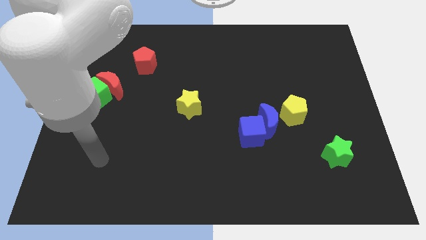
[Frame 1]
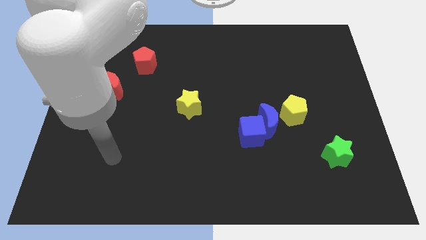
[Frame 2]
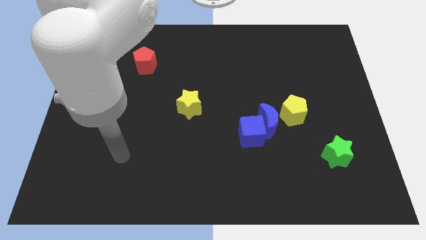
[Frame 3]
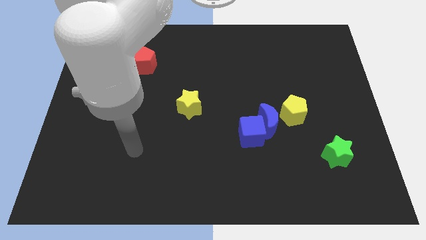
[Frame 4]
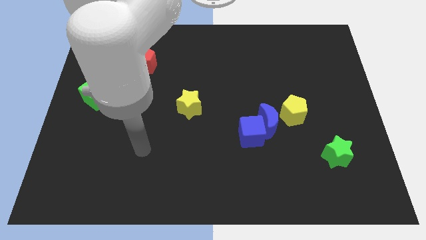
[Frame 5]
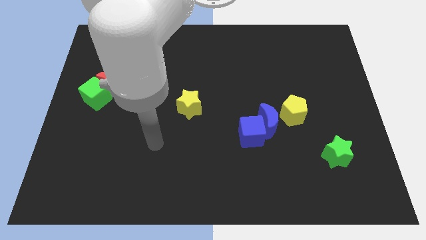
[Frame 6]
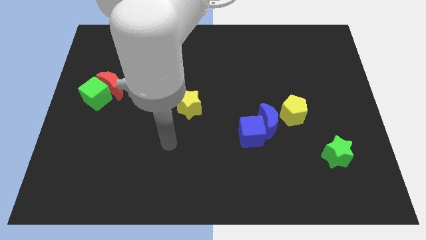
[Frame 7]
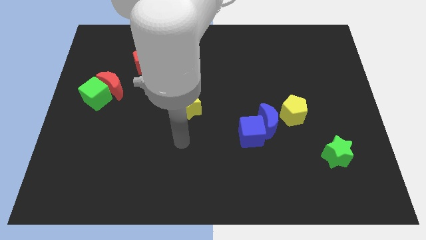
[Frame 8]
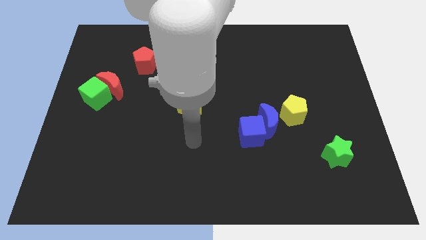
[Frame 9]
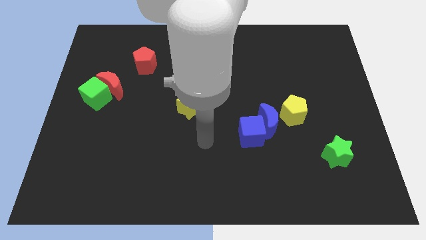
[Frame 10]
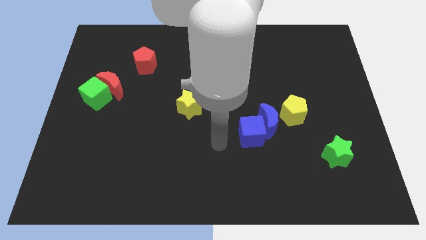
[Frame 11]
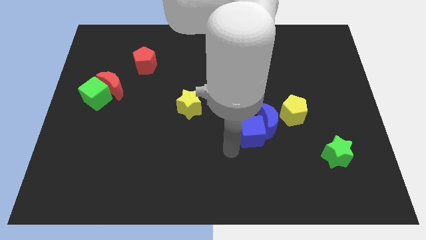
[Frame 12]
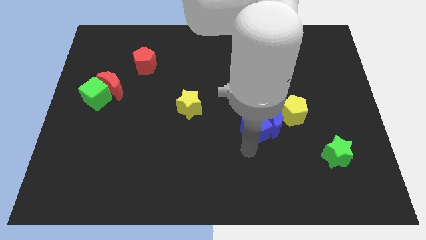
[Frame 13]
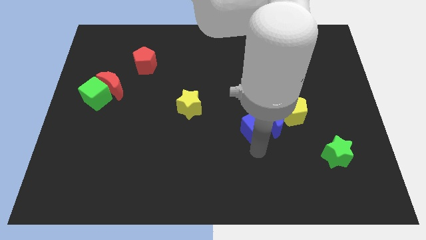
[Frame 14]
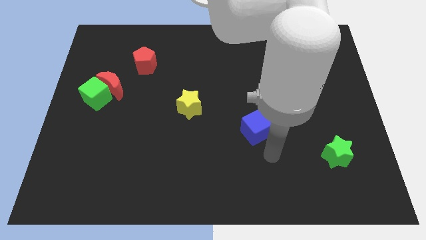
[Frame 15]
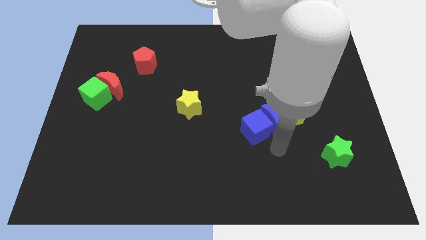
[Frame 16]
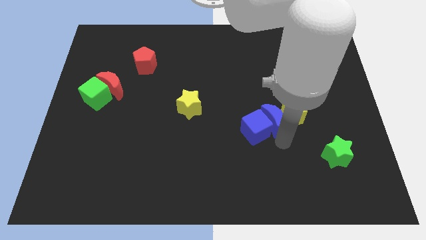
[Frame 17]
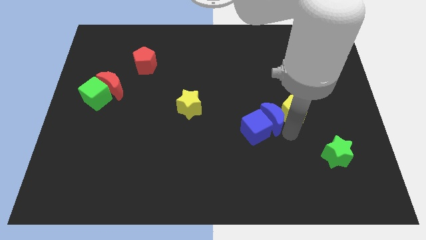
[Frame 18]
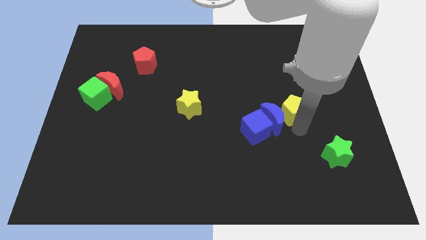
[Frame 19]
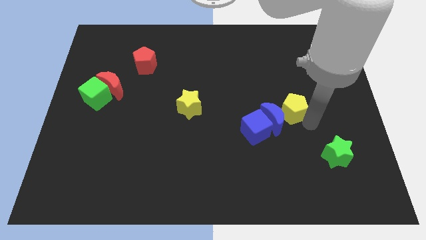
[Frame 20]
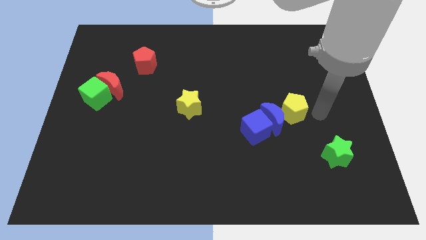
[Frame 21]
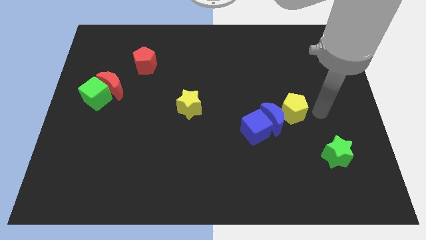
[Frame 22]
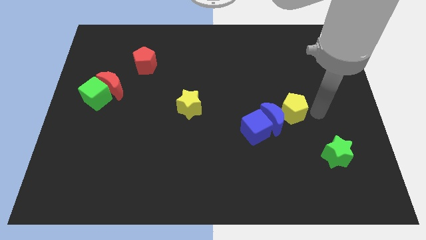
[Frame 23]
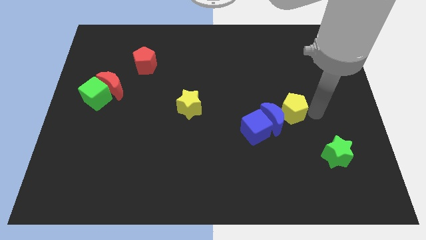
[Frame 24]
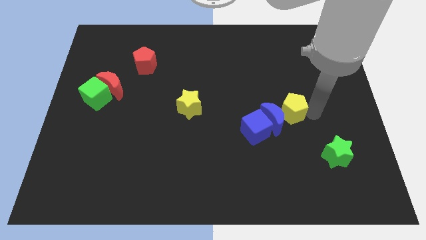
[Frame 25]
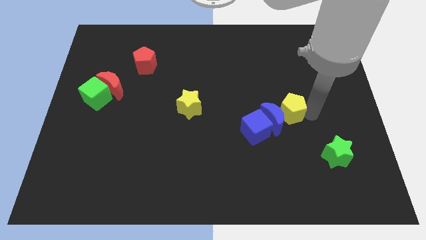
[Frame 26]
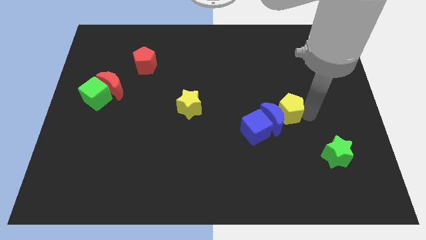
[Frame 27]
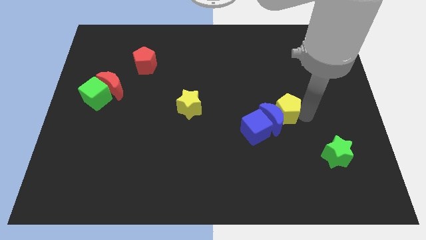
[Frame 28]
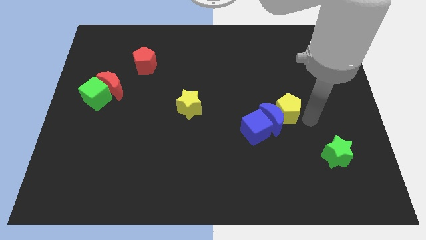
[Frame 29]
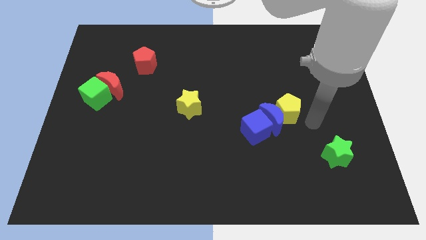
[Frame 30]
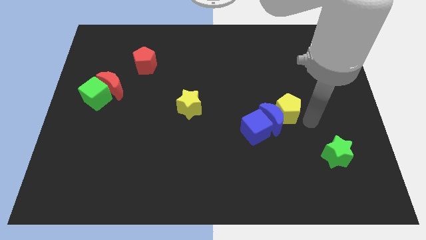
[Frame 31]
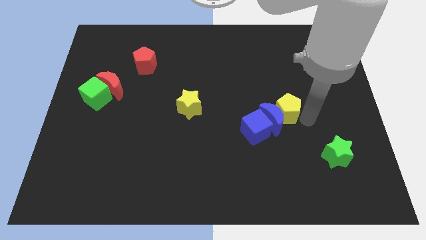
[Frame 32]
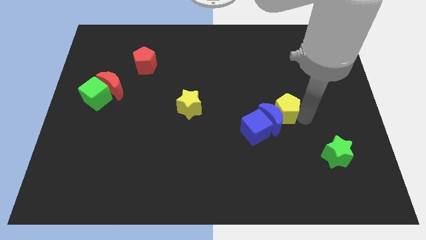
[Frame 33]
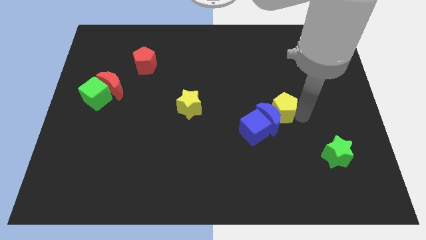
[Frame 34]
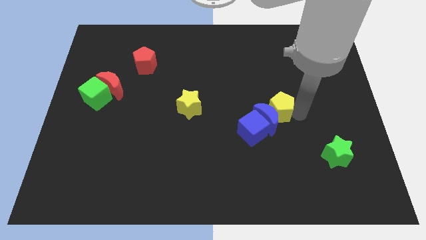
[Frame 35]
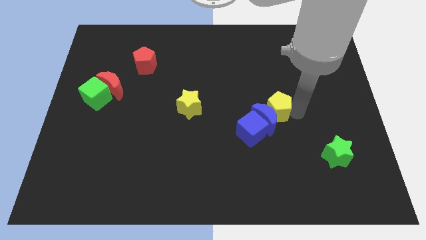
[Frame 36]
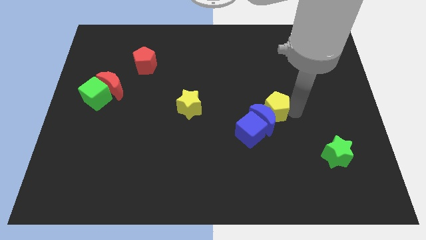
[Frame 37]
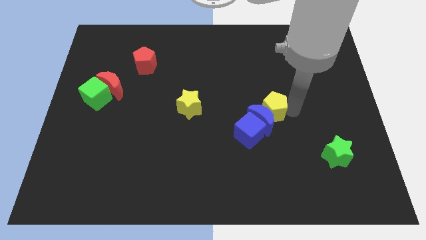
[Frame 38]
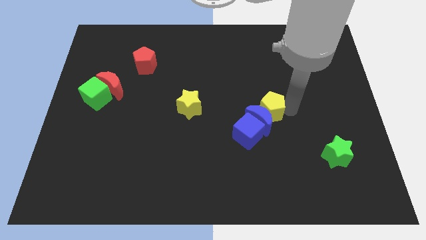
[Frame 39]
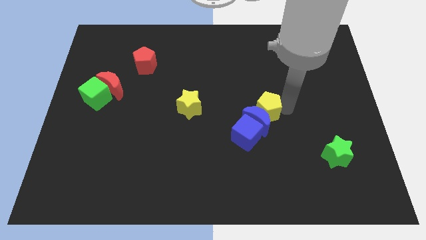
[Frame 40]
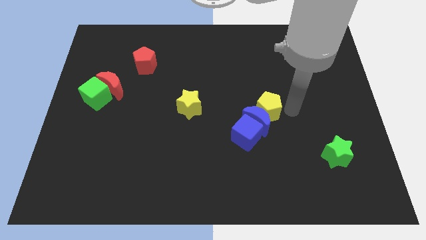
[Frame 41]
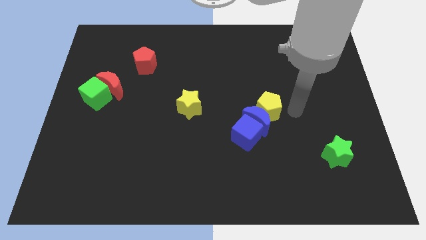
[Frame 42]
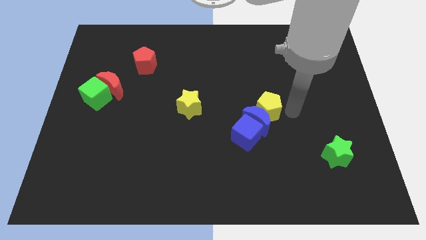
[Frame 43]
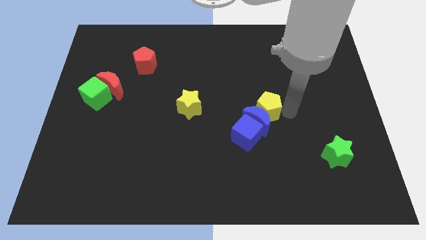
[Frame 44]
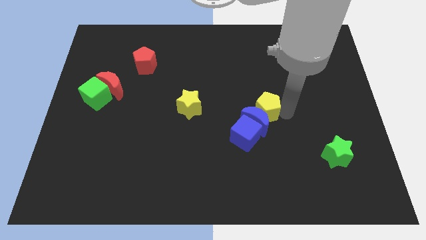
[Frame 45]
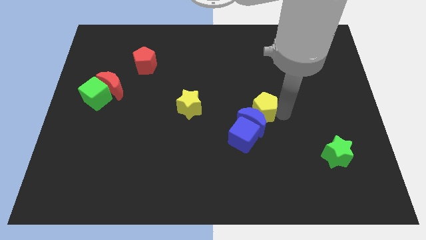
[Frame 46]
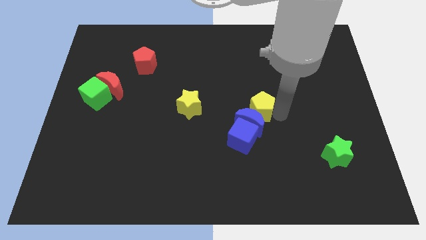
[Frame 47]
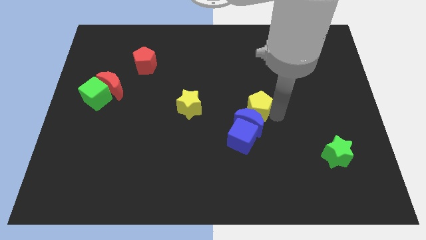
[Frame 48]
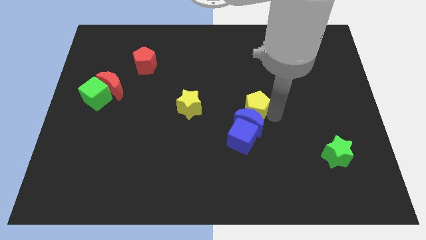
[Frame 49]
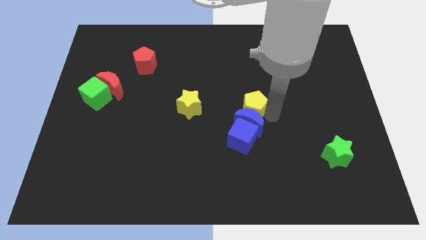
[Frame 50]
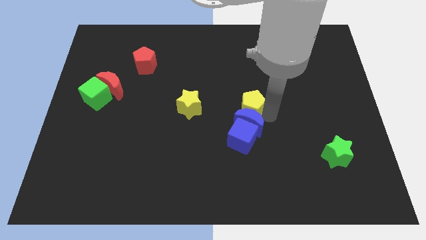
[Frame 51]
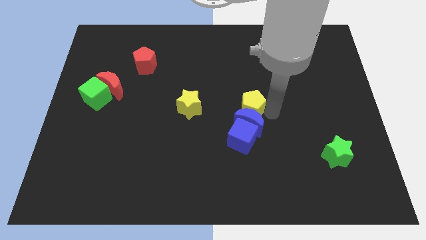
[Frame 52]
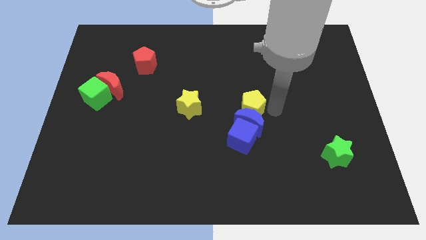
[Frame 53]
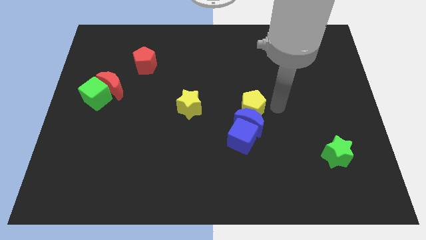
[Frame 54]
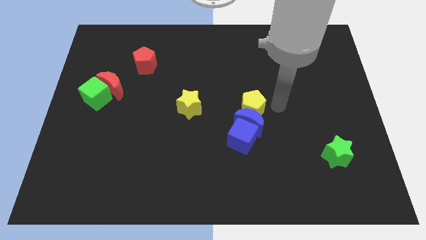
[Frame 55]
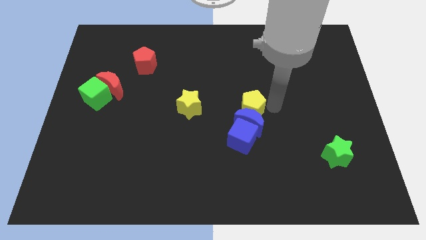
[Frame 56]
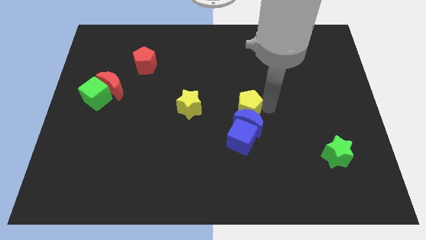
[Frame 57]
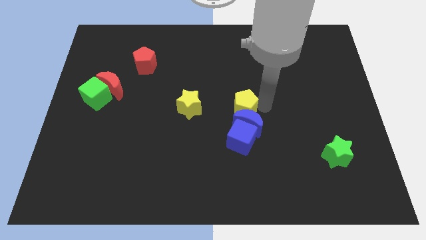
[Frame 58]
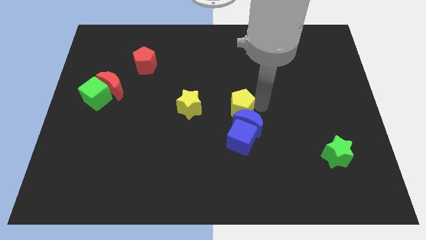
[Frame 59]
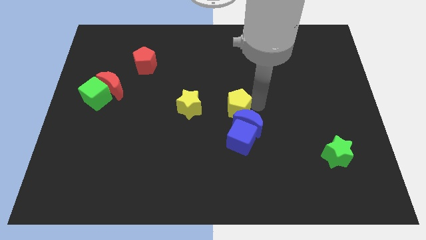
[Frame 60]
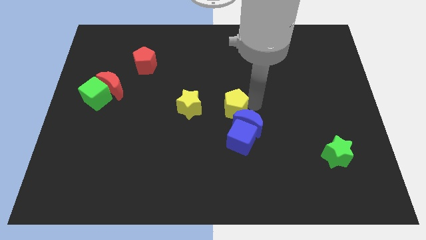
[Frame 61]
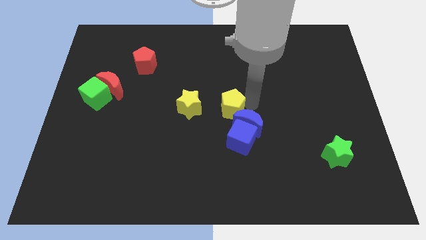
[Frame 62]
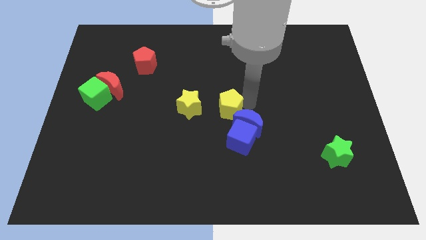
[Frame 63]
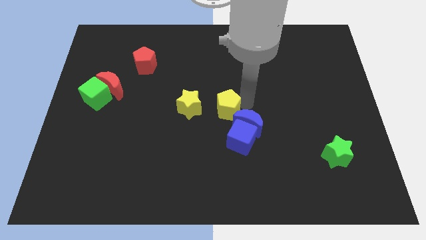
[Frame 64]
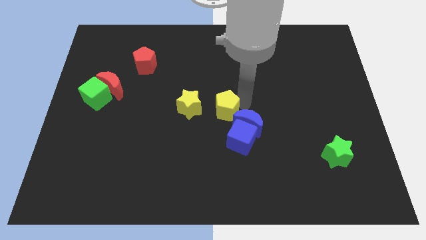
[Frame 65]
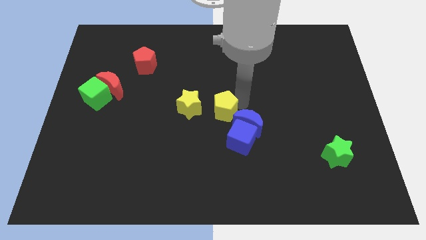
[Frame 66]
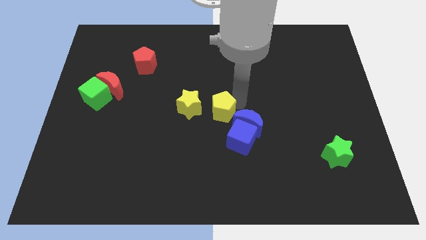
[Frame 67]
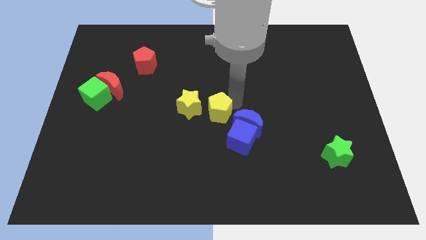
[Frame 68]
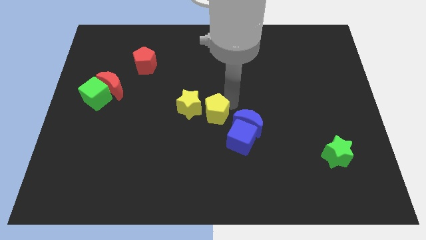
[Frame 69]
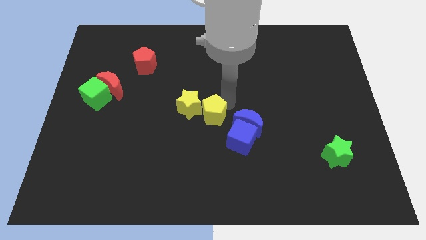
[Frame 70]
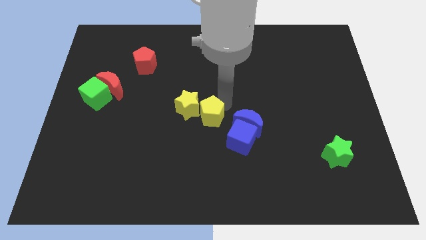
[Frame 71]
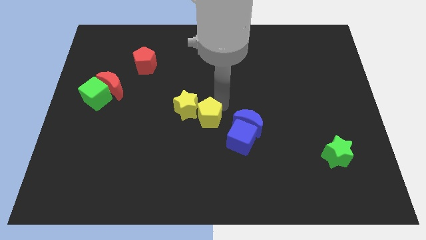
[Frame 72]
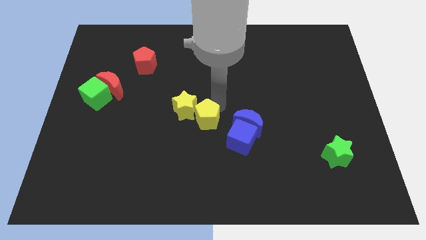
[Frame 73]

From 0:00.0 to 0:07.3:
move the yellow pentagon left

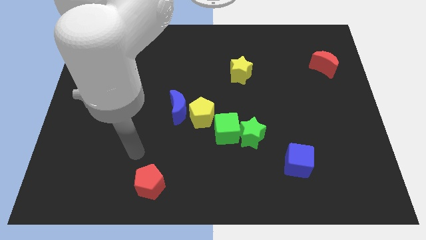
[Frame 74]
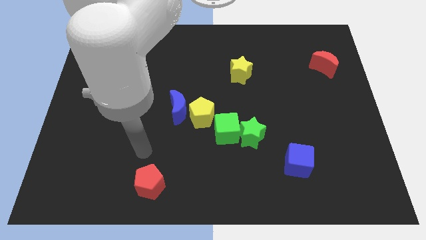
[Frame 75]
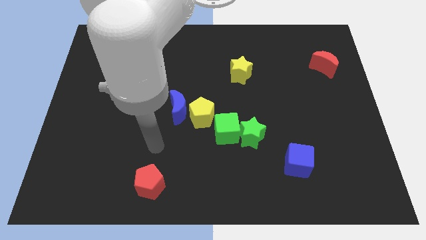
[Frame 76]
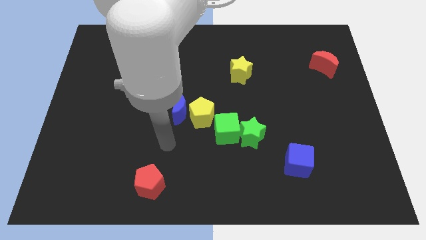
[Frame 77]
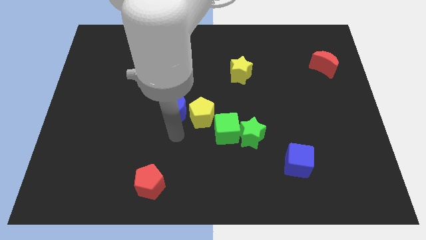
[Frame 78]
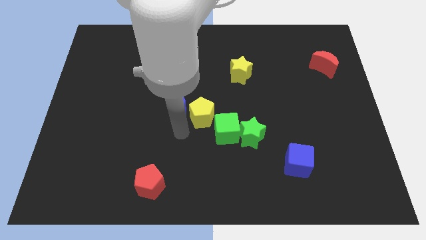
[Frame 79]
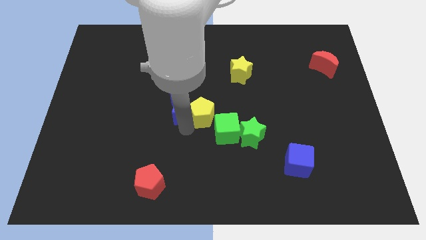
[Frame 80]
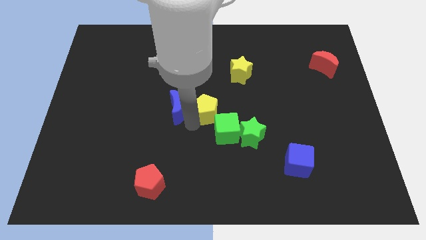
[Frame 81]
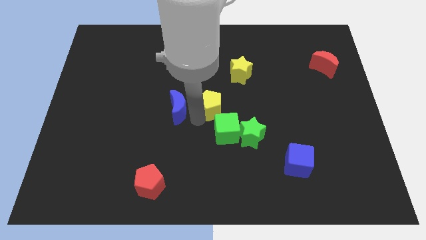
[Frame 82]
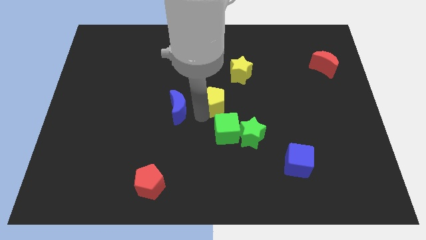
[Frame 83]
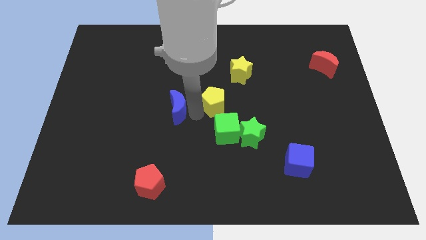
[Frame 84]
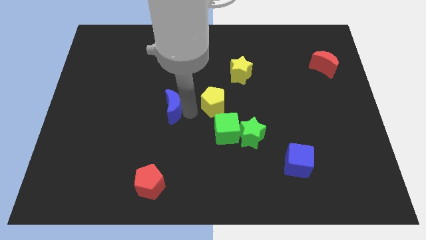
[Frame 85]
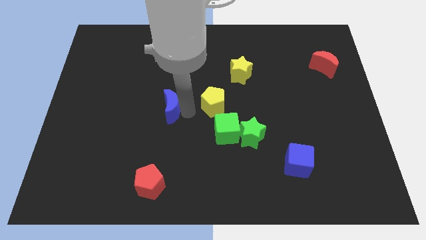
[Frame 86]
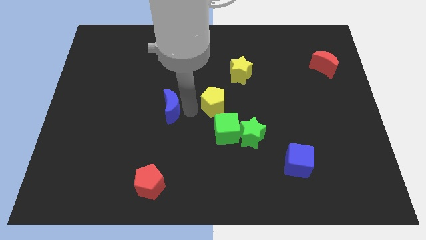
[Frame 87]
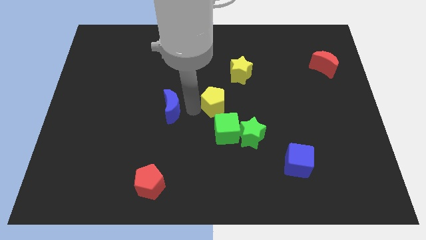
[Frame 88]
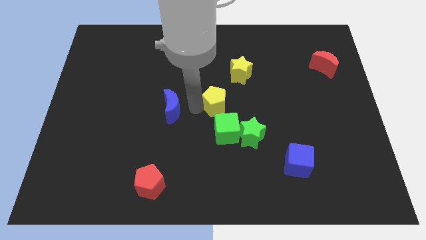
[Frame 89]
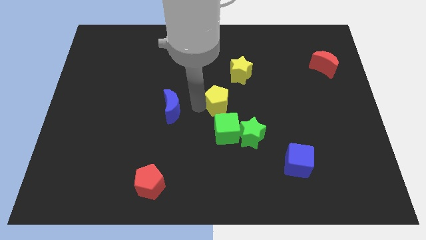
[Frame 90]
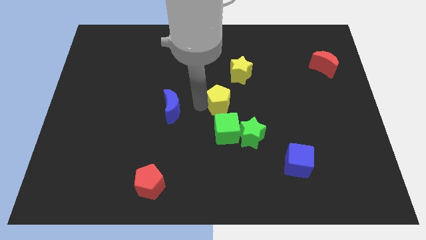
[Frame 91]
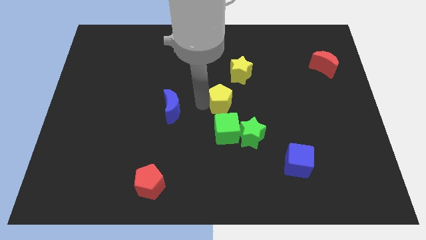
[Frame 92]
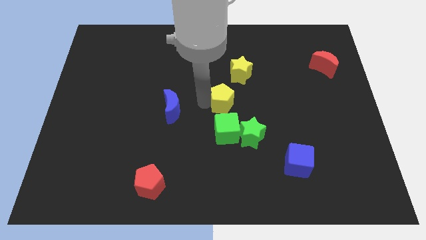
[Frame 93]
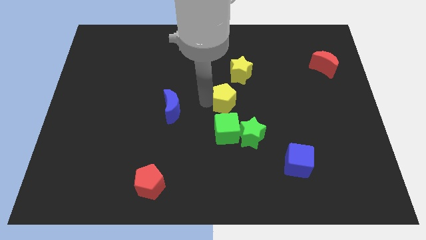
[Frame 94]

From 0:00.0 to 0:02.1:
slightly move the yellow pentagon upwards and to the right
